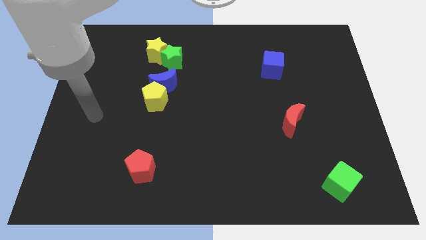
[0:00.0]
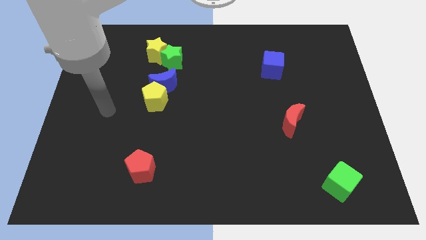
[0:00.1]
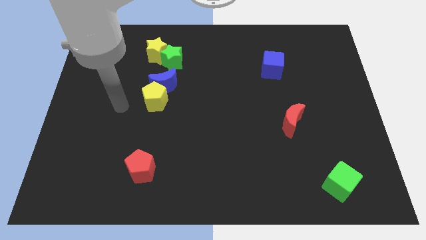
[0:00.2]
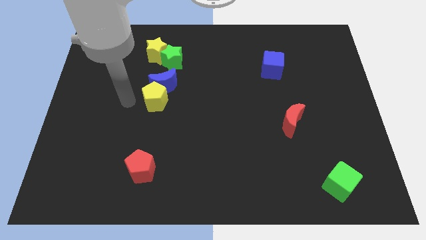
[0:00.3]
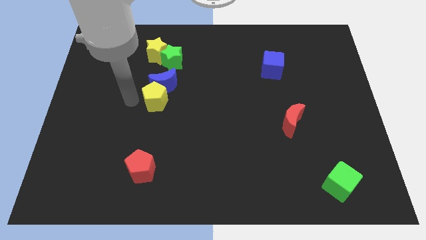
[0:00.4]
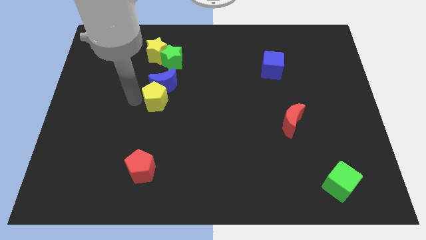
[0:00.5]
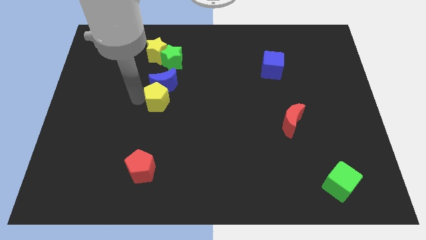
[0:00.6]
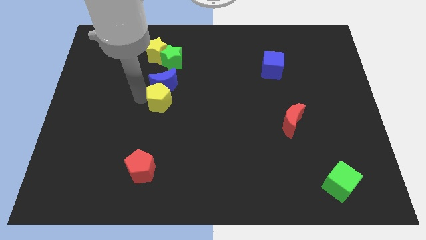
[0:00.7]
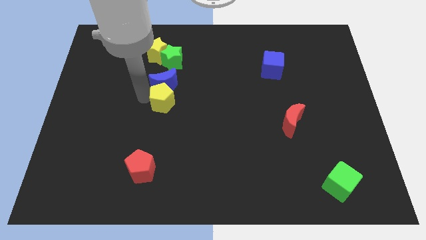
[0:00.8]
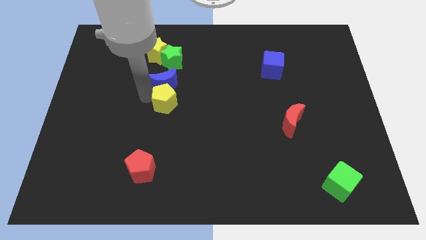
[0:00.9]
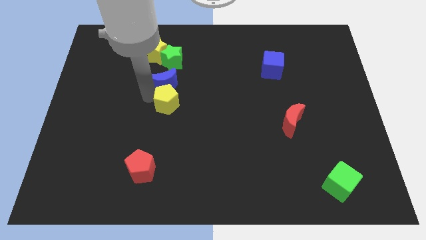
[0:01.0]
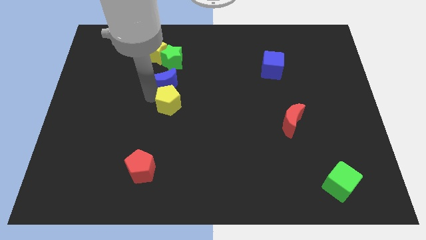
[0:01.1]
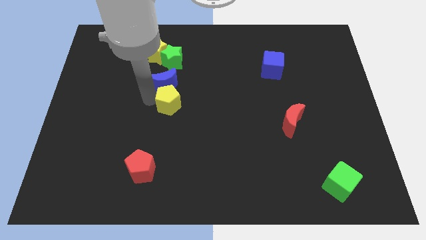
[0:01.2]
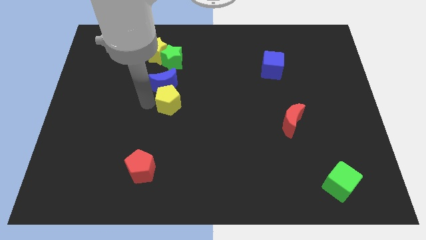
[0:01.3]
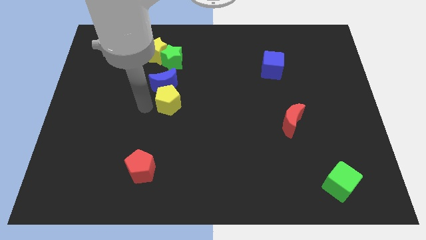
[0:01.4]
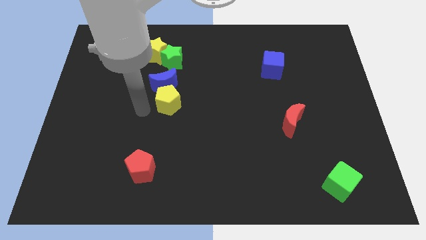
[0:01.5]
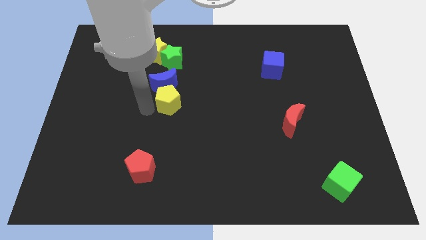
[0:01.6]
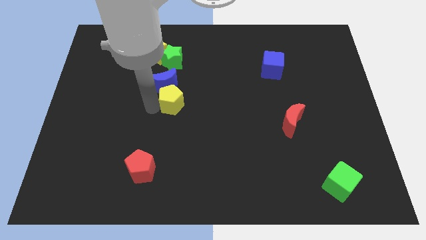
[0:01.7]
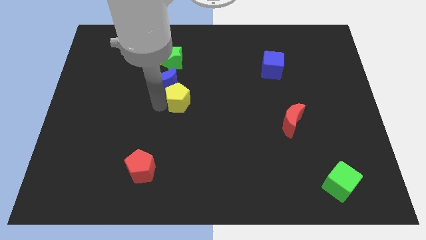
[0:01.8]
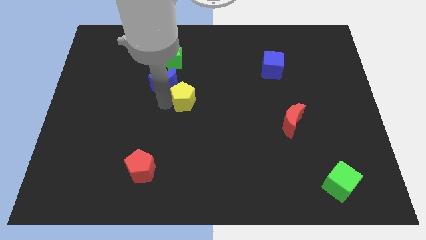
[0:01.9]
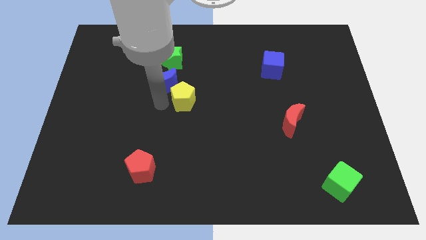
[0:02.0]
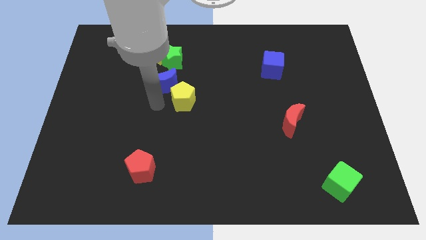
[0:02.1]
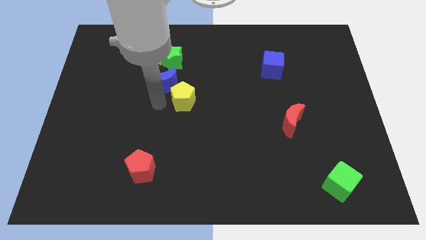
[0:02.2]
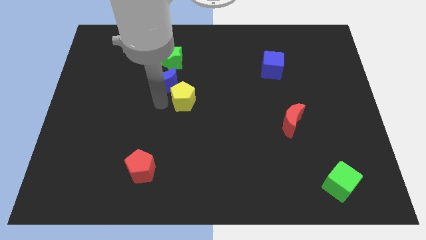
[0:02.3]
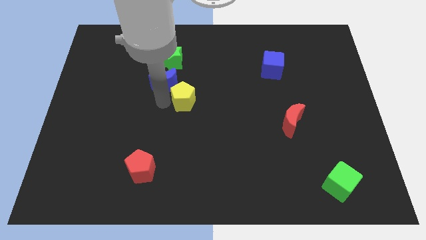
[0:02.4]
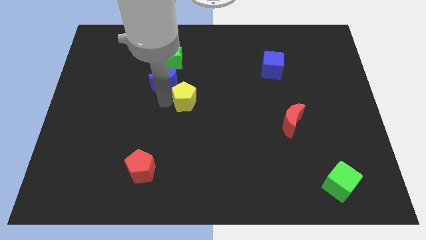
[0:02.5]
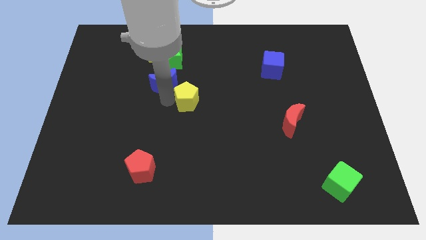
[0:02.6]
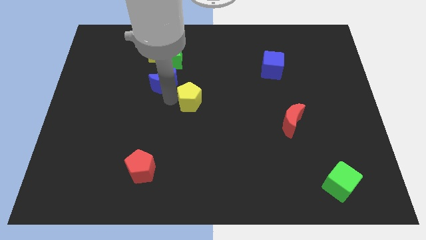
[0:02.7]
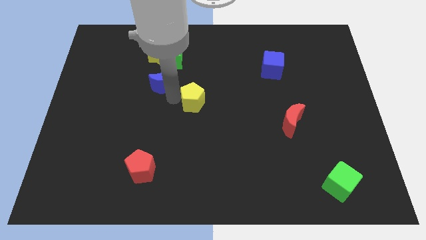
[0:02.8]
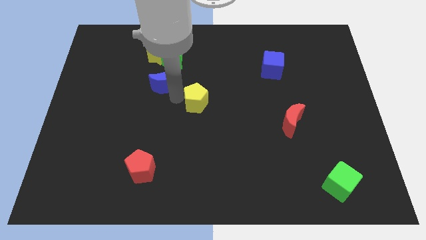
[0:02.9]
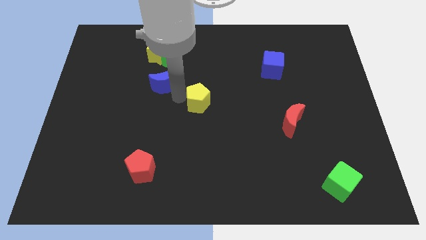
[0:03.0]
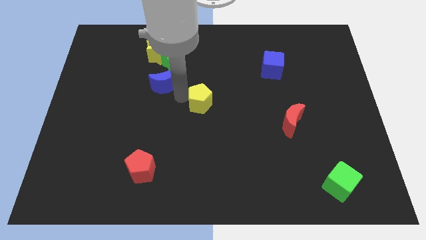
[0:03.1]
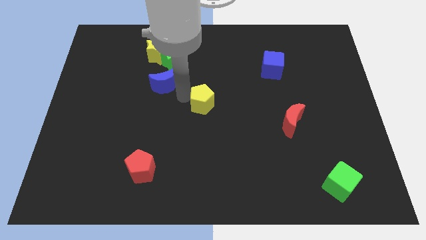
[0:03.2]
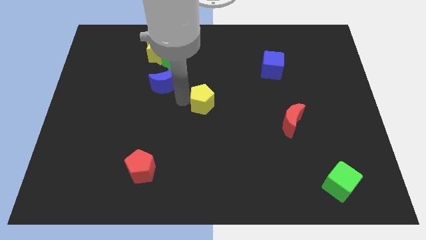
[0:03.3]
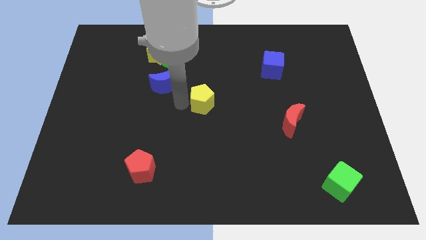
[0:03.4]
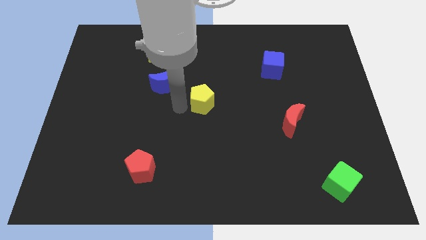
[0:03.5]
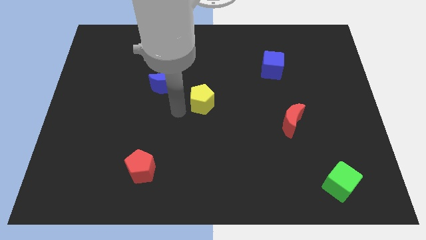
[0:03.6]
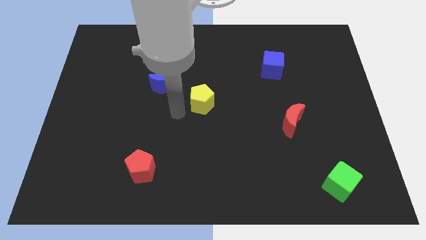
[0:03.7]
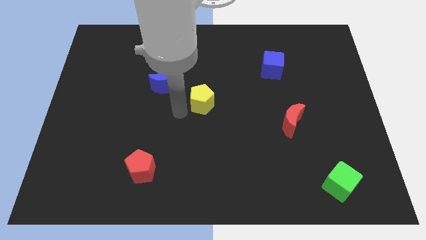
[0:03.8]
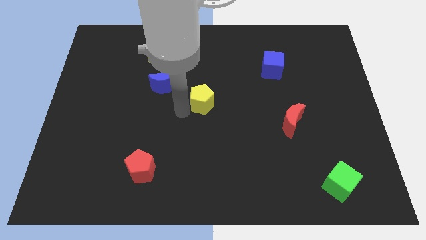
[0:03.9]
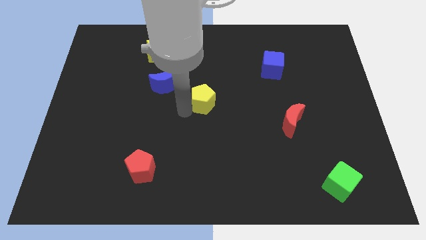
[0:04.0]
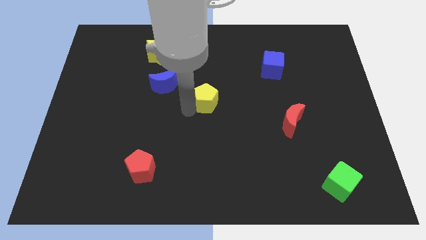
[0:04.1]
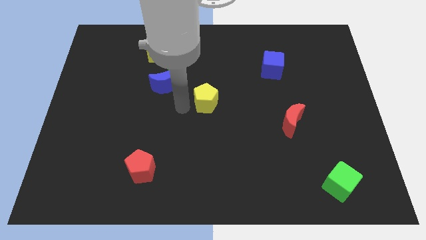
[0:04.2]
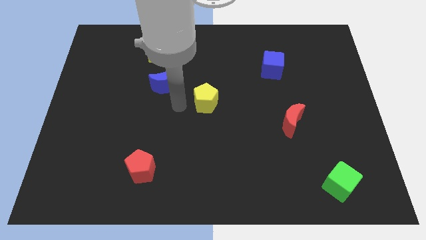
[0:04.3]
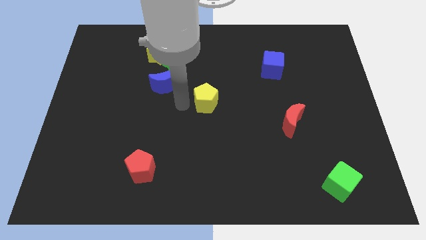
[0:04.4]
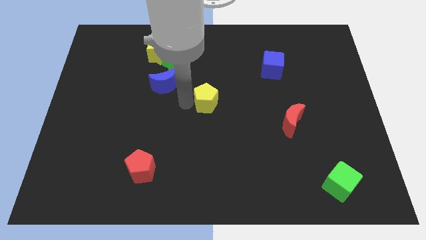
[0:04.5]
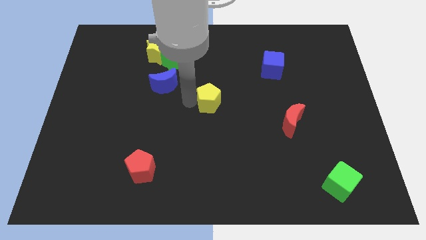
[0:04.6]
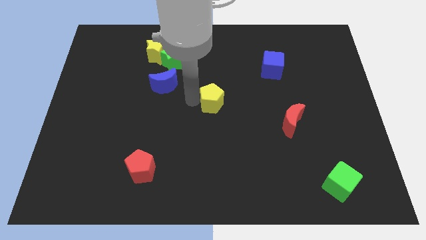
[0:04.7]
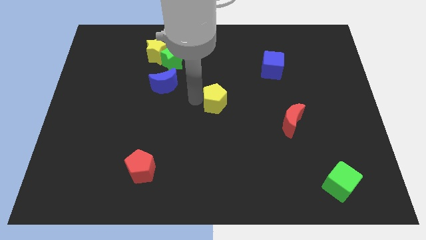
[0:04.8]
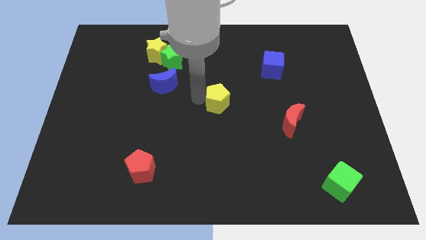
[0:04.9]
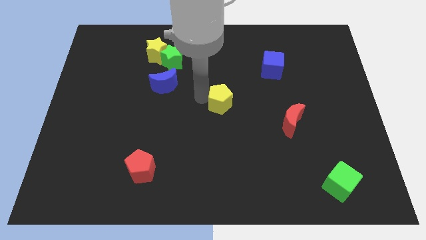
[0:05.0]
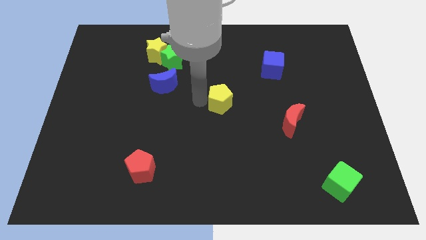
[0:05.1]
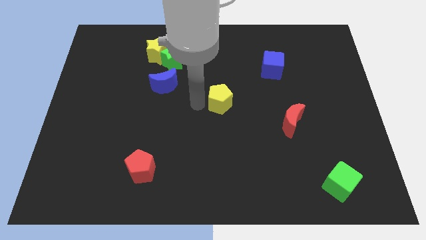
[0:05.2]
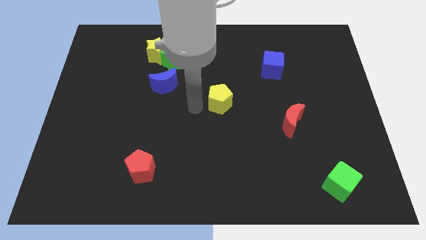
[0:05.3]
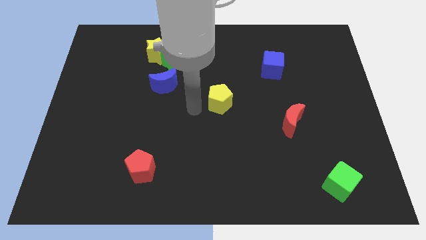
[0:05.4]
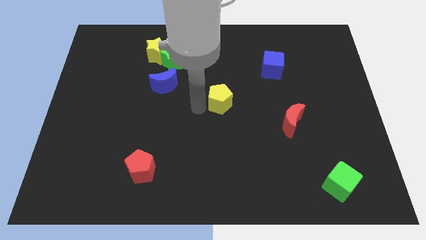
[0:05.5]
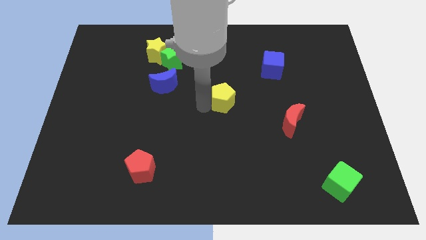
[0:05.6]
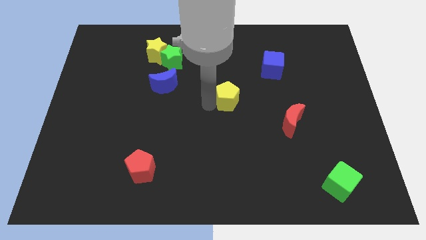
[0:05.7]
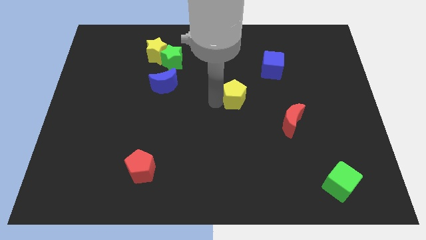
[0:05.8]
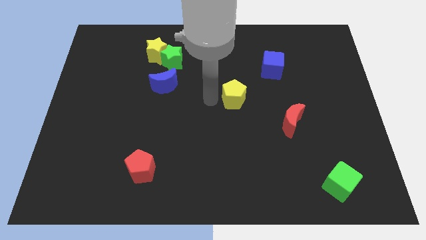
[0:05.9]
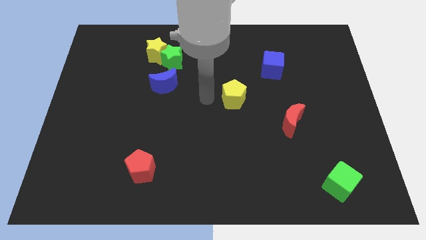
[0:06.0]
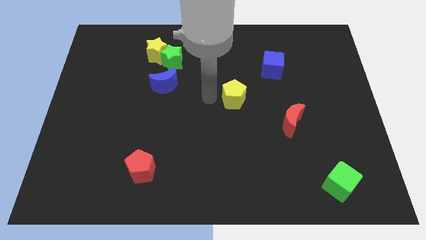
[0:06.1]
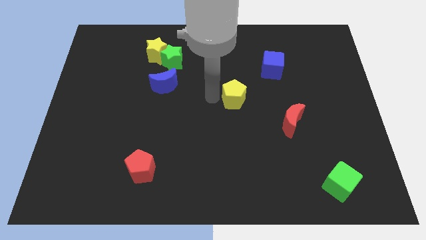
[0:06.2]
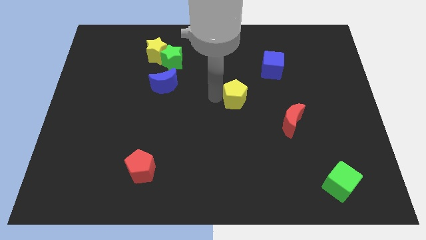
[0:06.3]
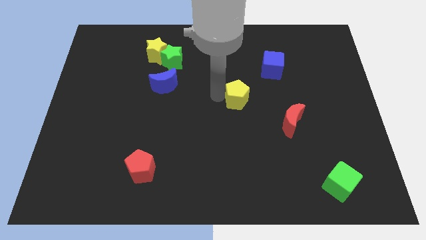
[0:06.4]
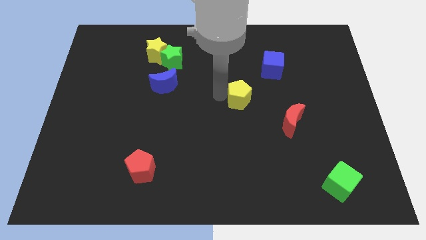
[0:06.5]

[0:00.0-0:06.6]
push the yellow pentagon right

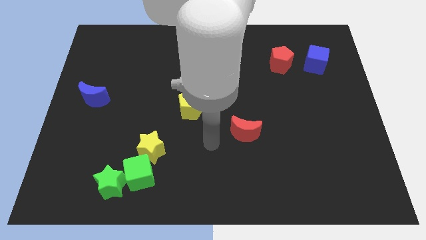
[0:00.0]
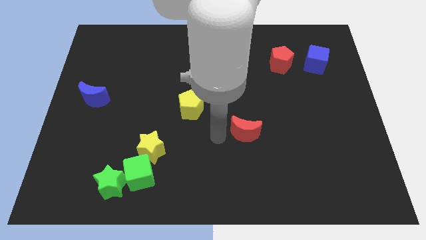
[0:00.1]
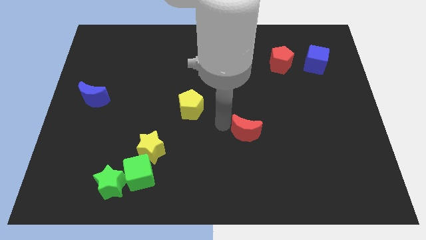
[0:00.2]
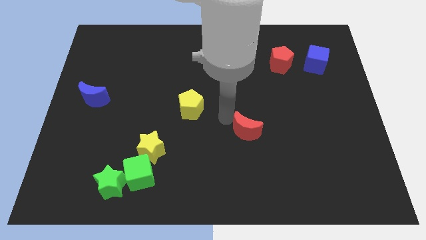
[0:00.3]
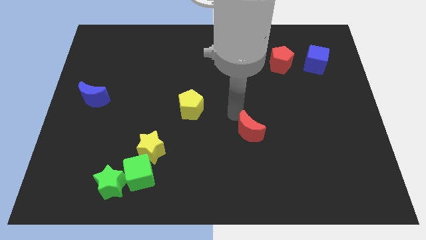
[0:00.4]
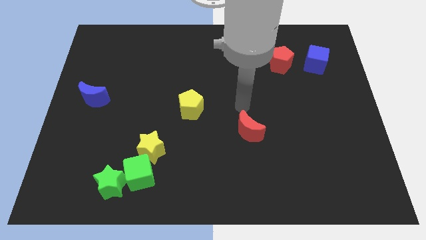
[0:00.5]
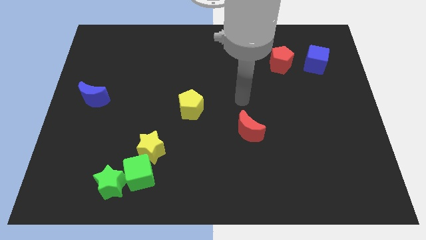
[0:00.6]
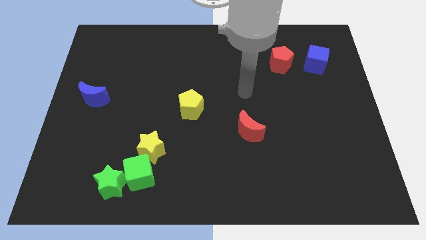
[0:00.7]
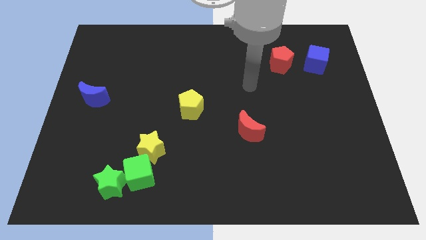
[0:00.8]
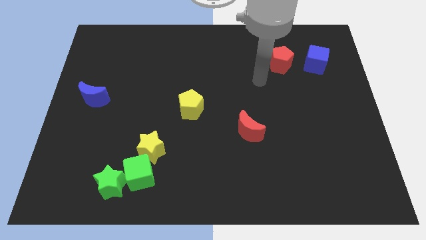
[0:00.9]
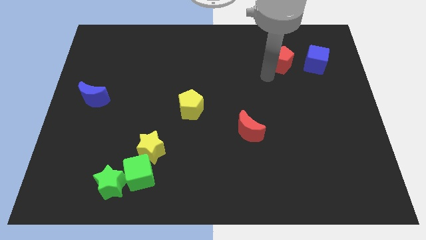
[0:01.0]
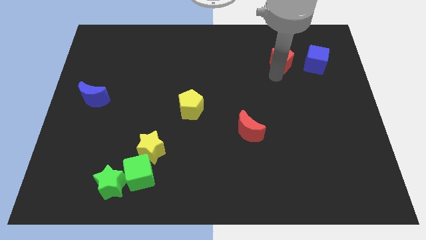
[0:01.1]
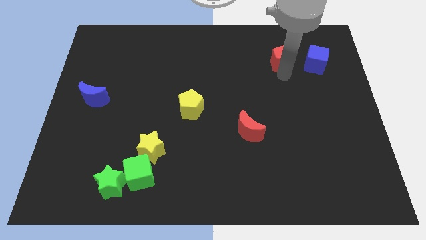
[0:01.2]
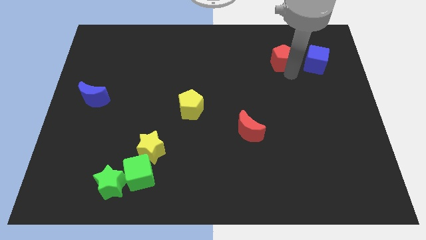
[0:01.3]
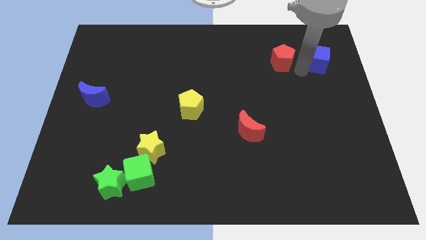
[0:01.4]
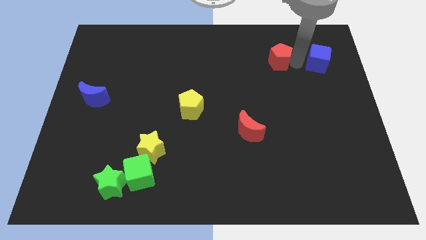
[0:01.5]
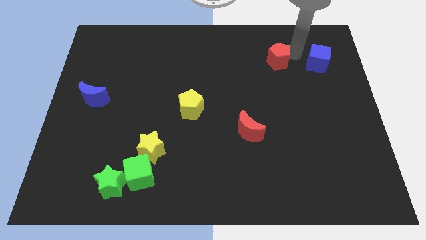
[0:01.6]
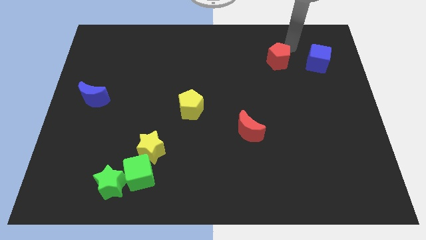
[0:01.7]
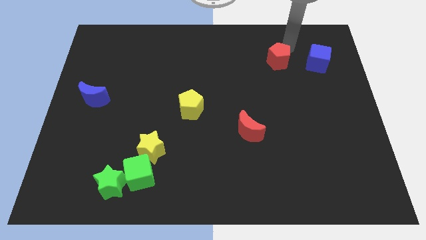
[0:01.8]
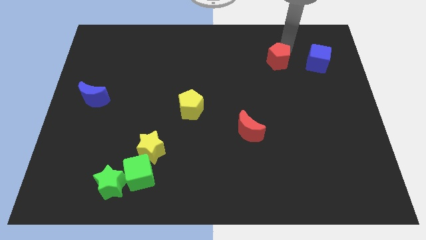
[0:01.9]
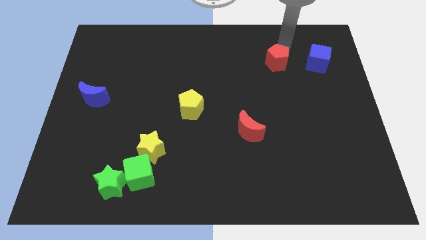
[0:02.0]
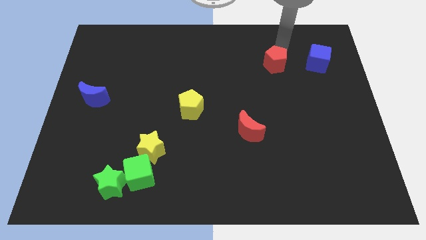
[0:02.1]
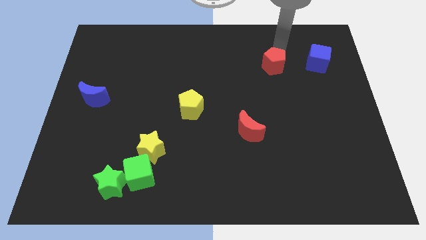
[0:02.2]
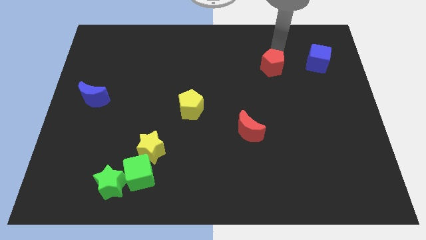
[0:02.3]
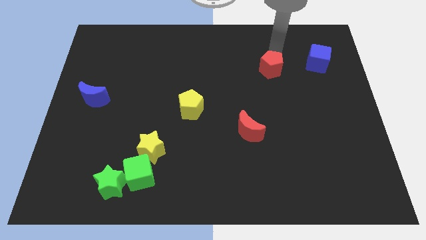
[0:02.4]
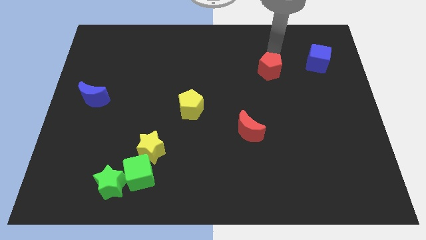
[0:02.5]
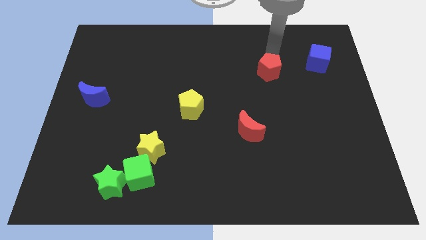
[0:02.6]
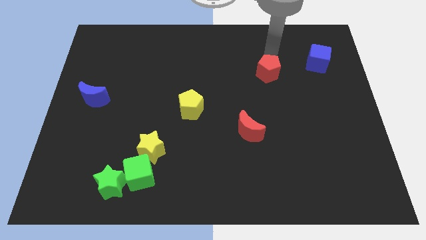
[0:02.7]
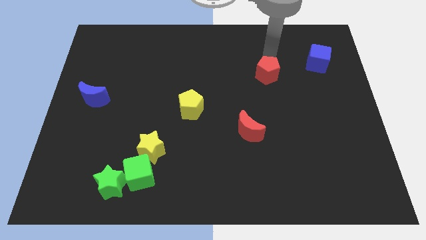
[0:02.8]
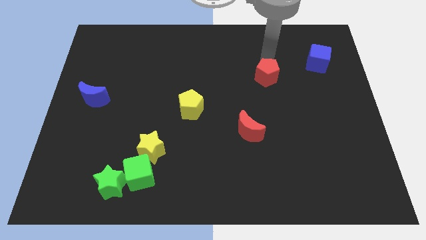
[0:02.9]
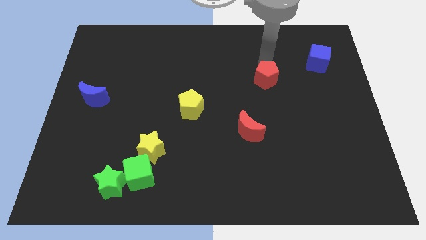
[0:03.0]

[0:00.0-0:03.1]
slide the red pentagon slightly downwards and left
